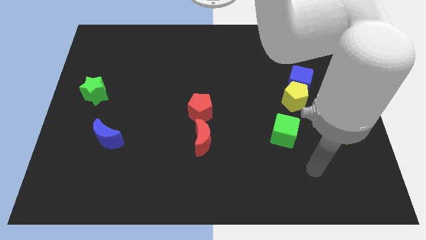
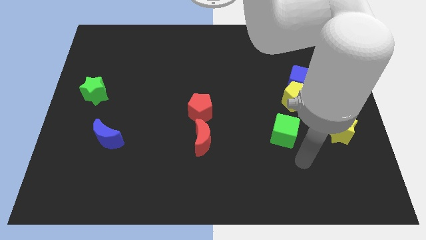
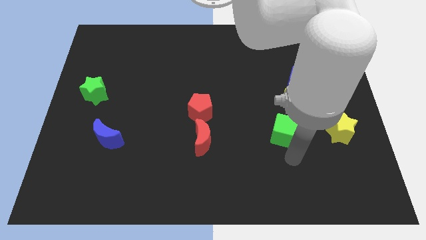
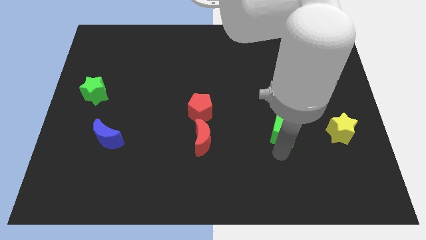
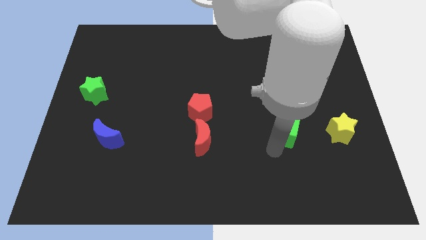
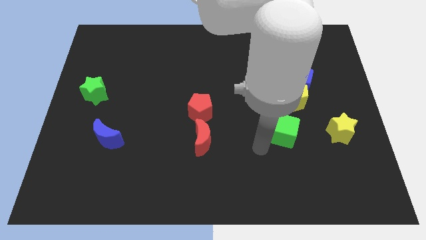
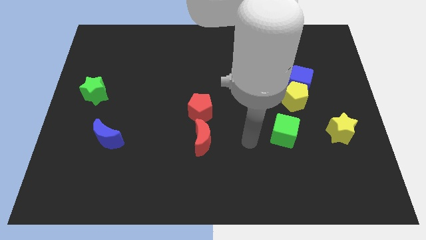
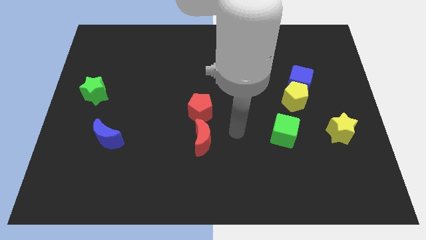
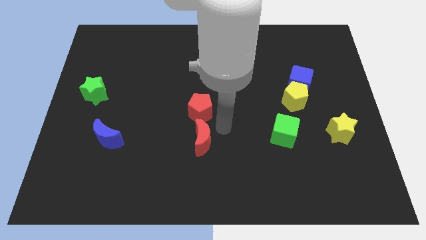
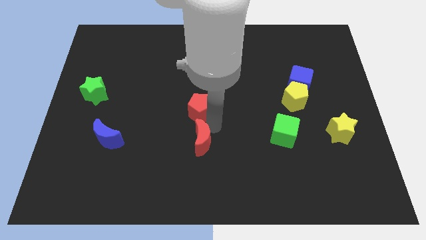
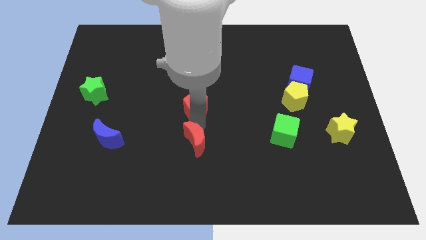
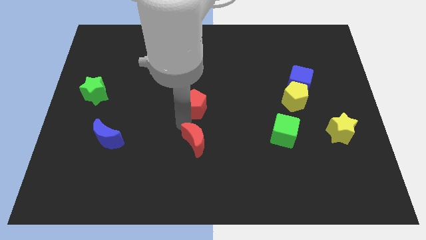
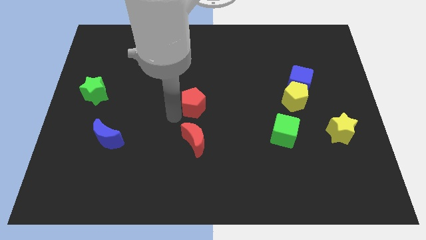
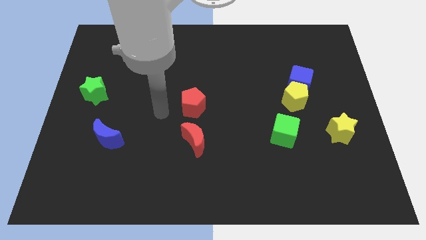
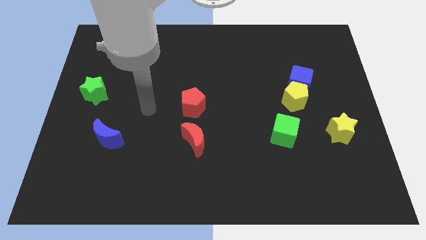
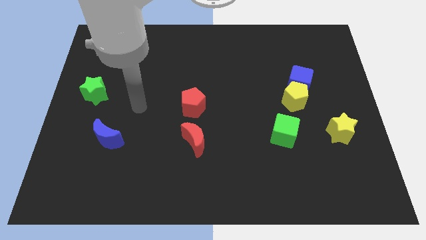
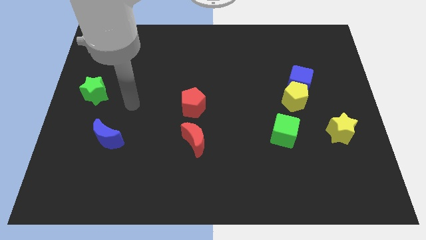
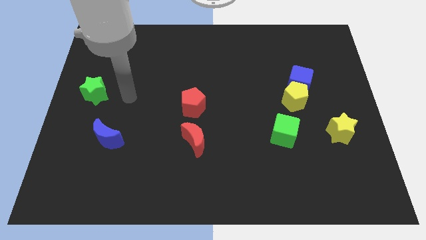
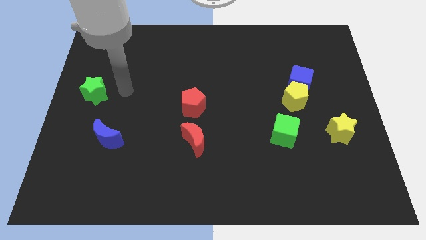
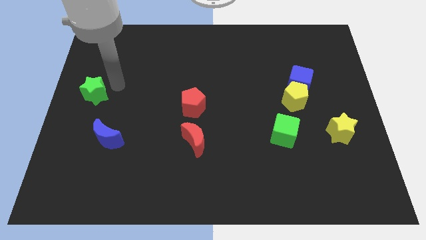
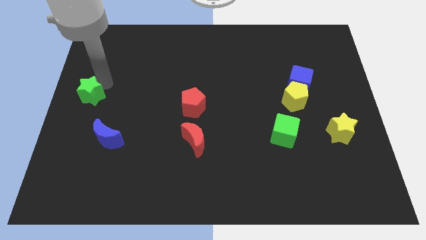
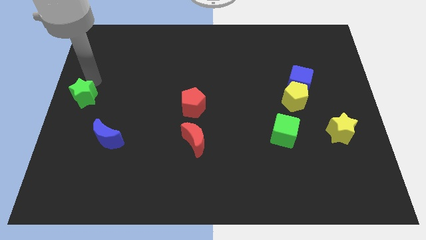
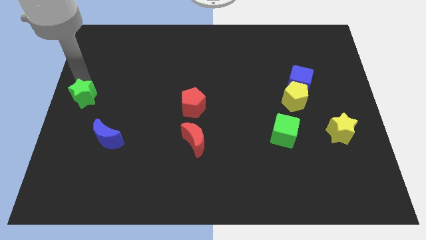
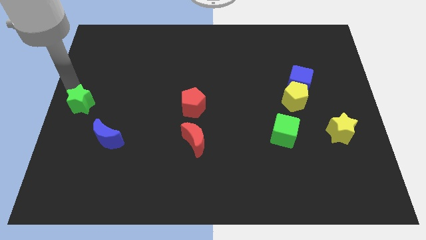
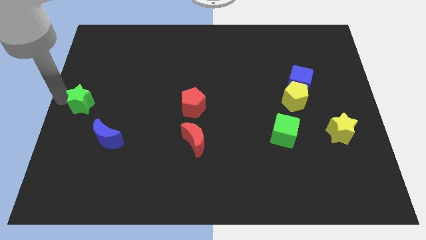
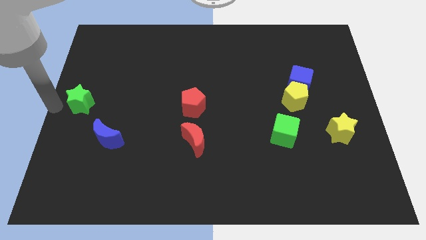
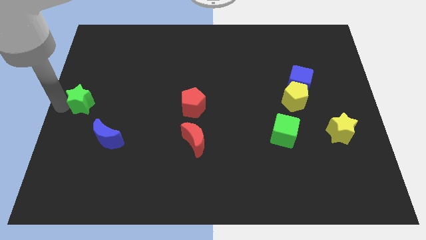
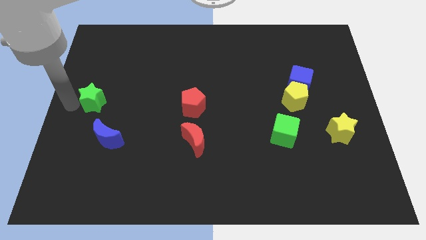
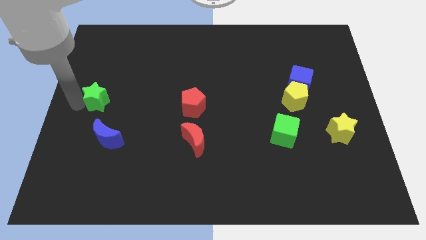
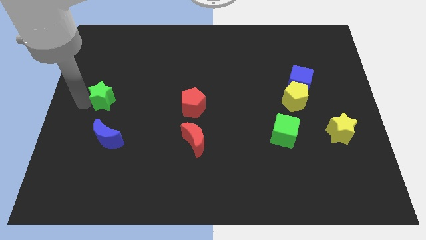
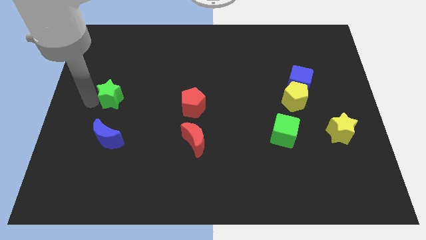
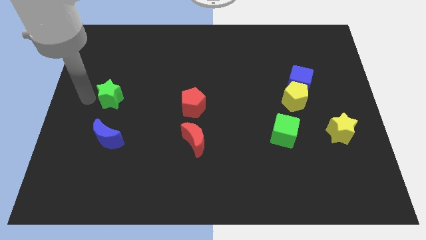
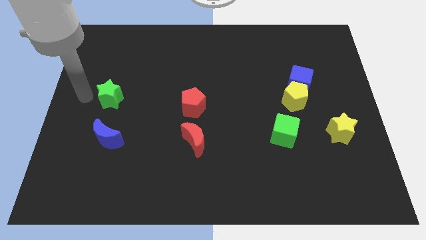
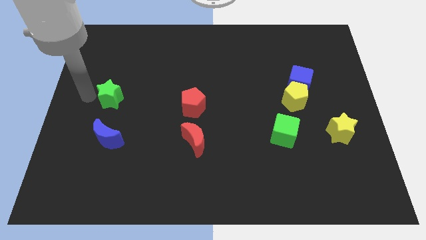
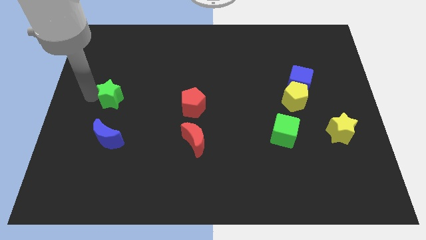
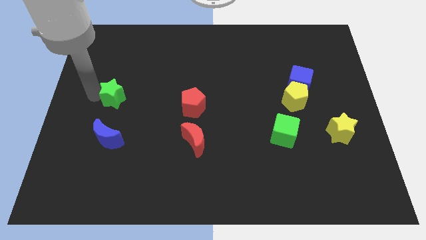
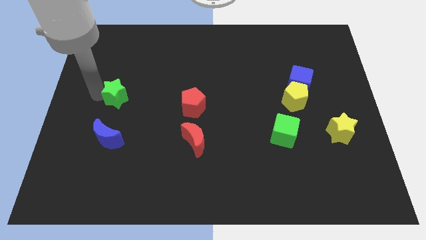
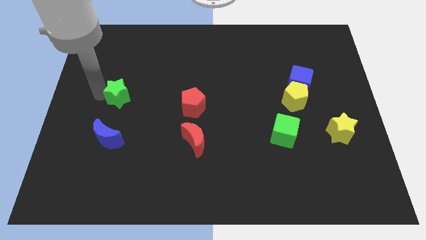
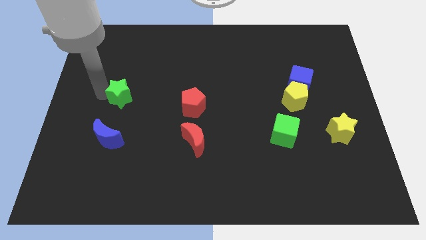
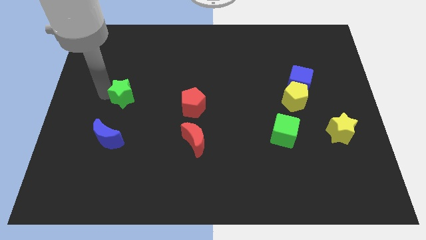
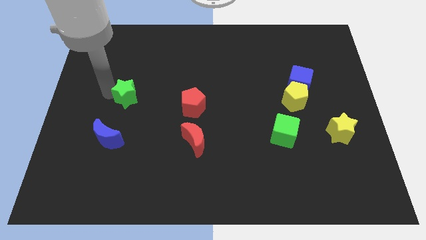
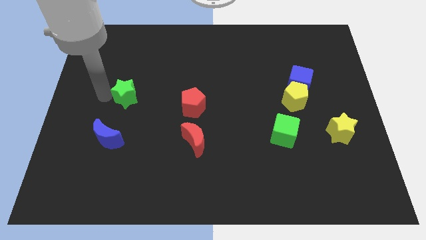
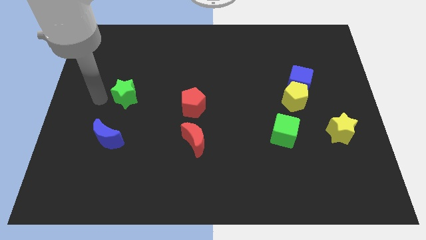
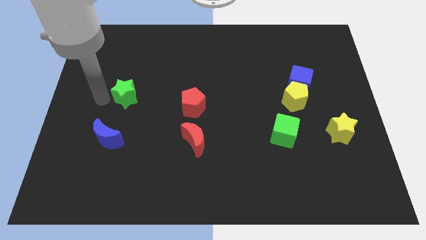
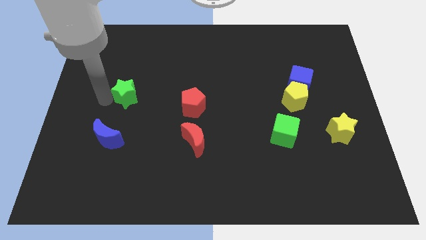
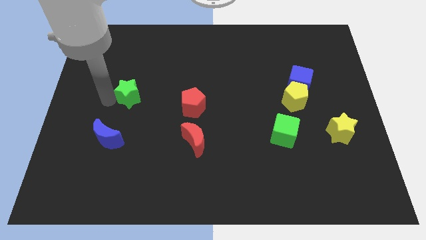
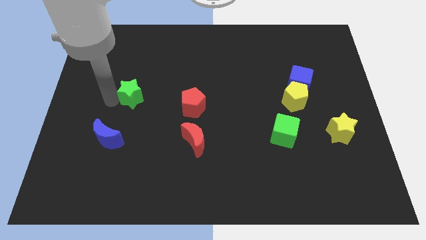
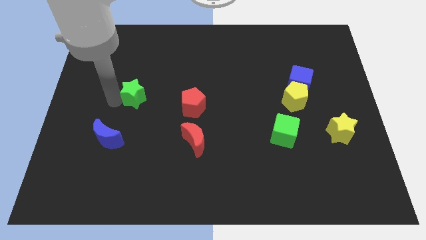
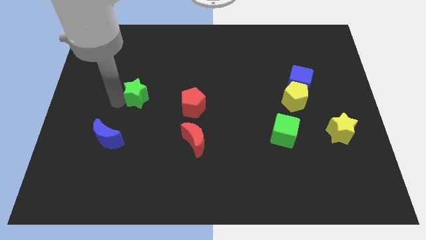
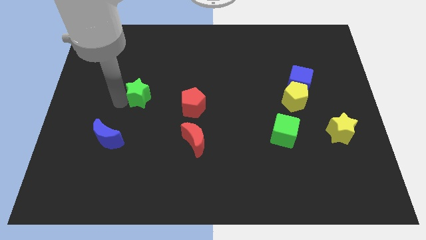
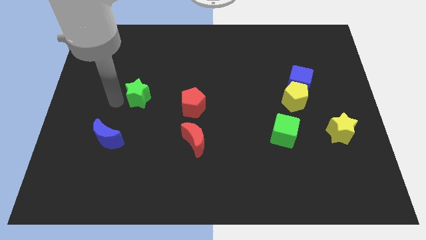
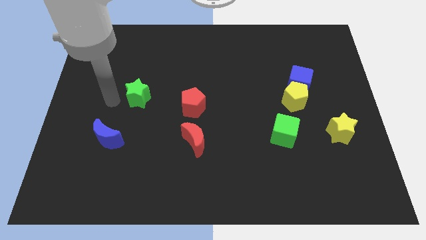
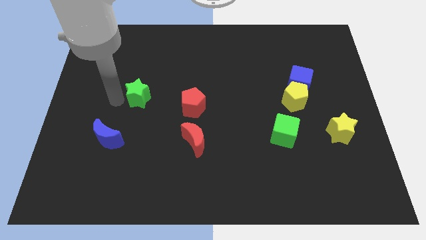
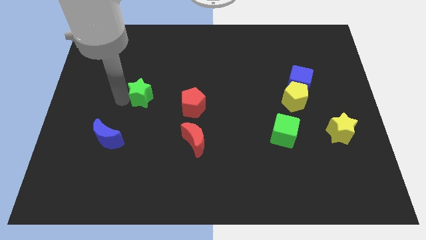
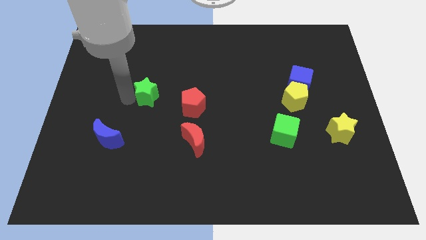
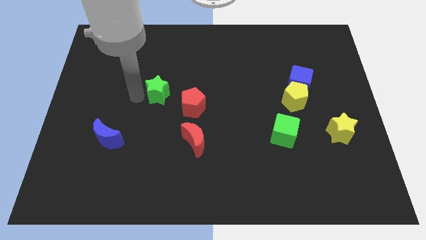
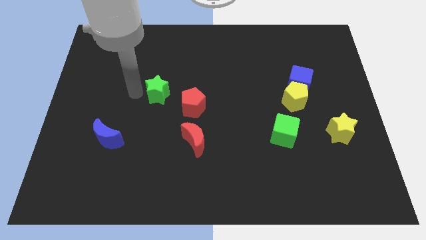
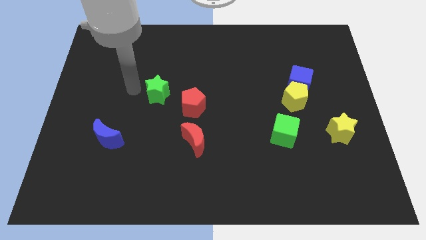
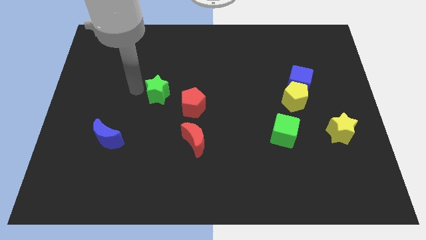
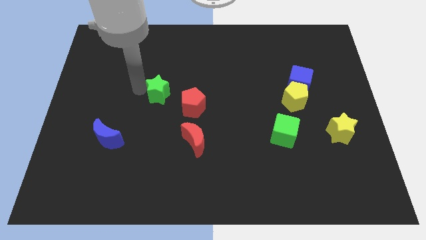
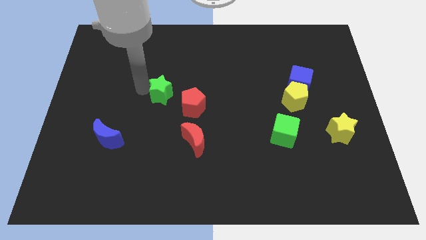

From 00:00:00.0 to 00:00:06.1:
slide the green star to the center of the board
